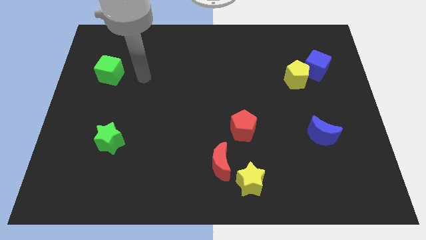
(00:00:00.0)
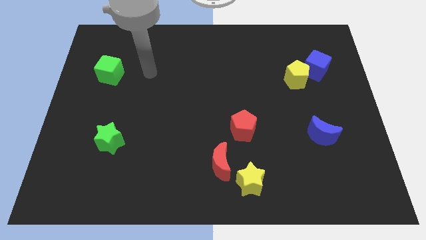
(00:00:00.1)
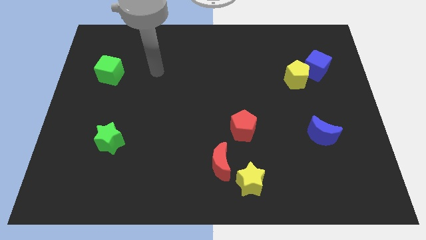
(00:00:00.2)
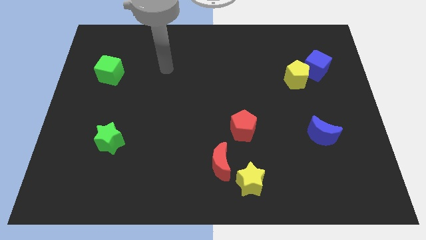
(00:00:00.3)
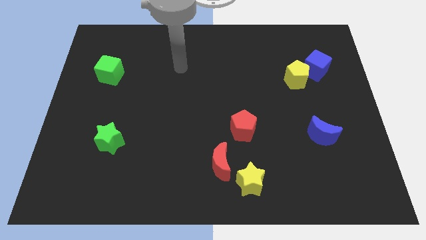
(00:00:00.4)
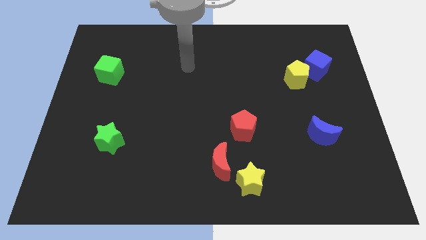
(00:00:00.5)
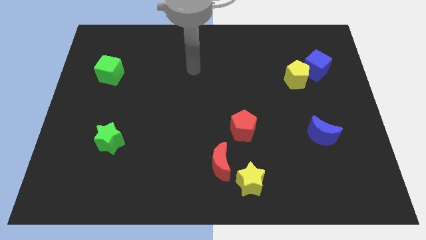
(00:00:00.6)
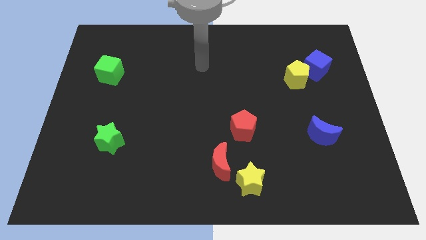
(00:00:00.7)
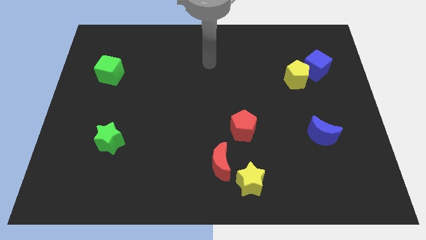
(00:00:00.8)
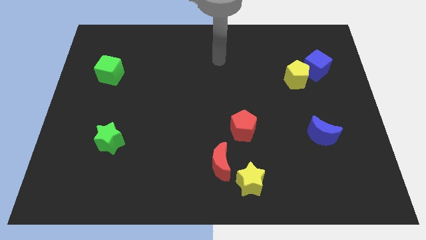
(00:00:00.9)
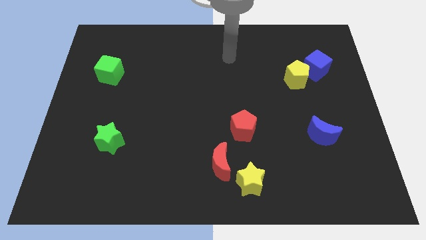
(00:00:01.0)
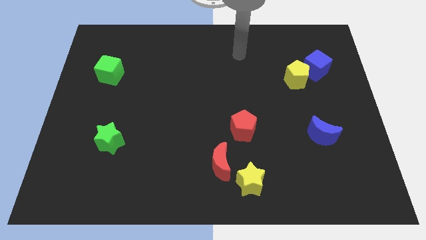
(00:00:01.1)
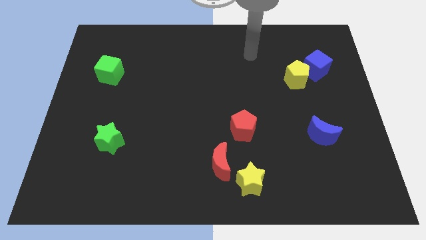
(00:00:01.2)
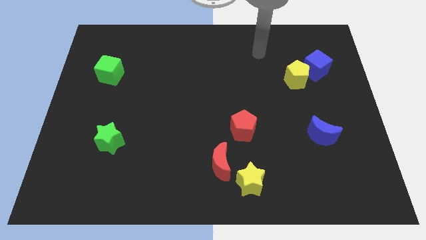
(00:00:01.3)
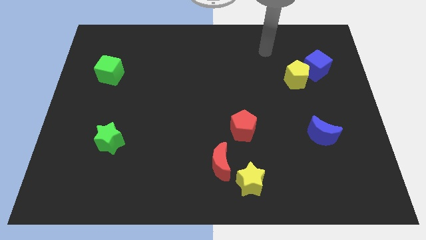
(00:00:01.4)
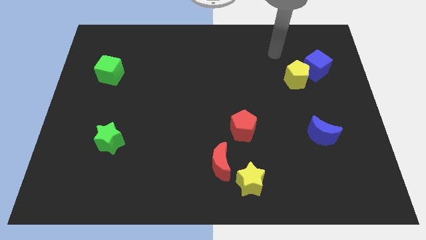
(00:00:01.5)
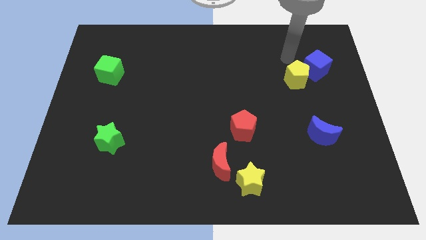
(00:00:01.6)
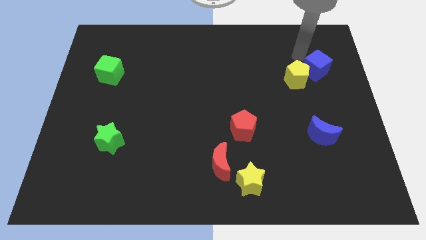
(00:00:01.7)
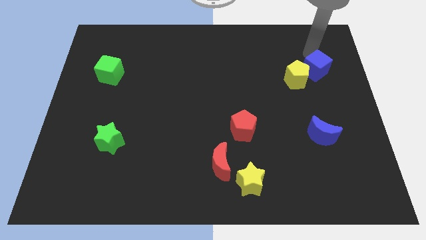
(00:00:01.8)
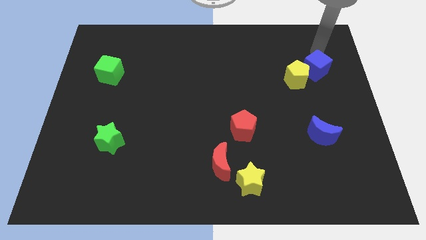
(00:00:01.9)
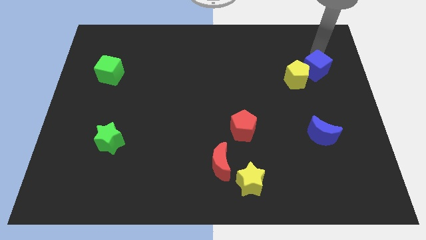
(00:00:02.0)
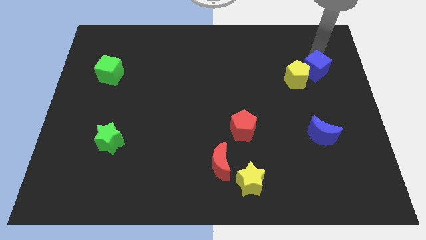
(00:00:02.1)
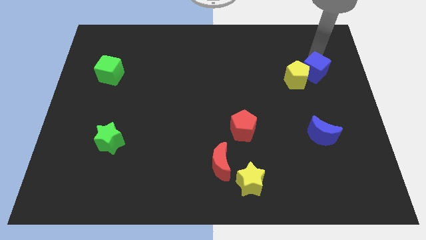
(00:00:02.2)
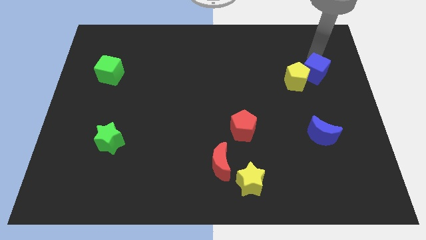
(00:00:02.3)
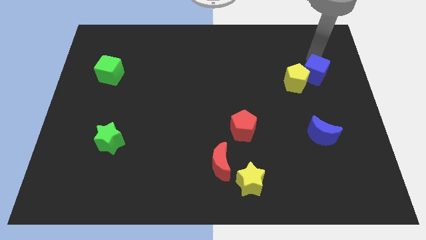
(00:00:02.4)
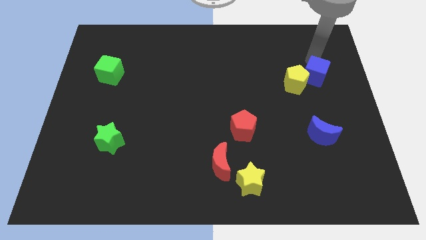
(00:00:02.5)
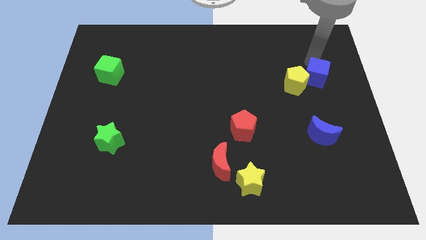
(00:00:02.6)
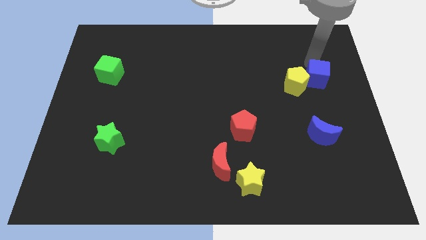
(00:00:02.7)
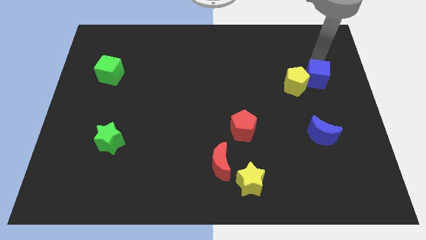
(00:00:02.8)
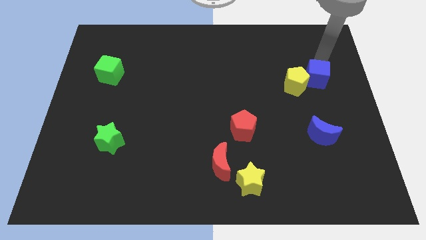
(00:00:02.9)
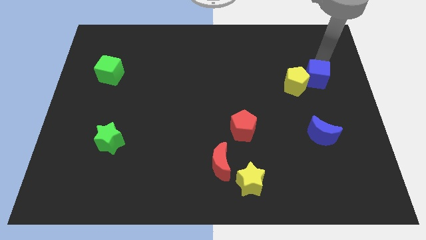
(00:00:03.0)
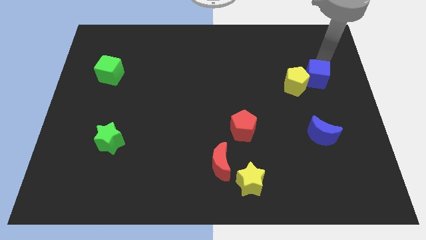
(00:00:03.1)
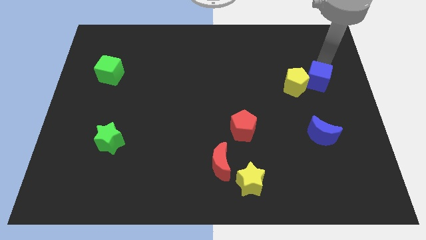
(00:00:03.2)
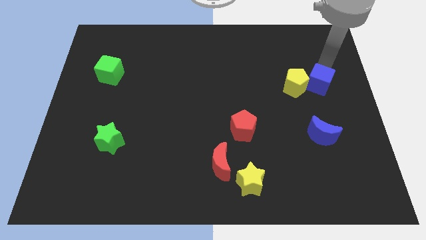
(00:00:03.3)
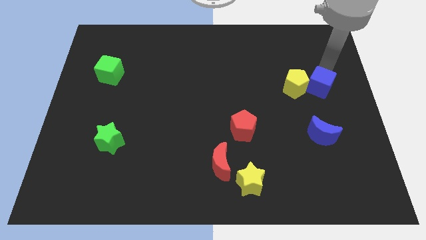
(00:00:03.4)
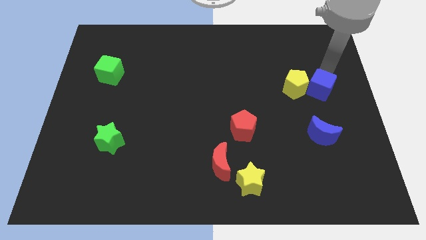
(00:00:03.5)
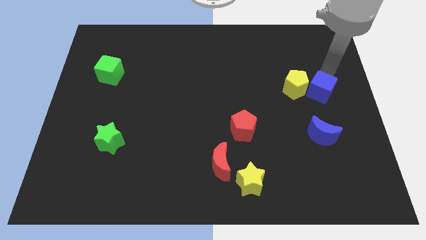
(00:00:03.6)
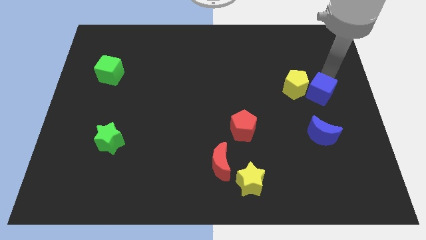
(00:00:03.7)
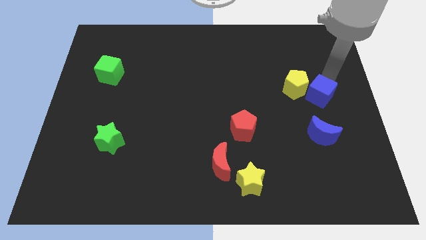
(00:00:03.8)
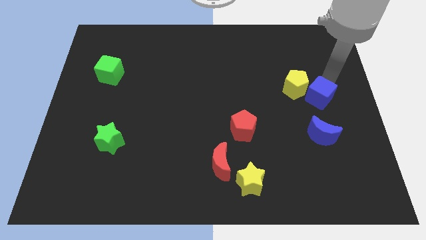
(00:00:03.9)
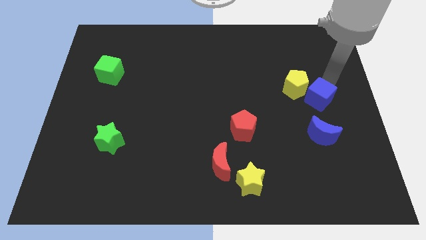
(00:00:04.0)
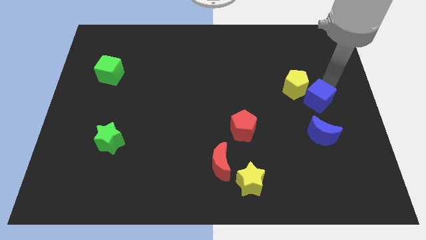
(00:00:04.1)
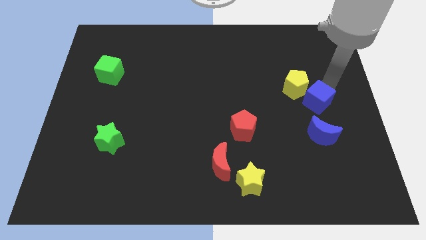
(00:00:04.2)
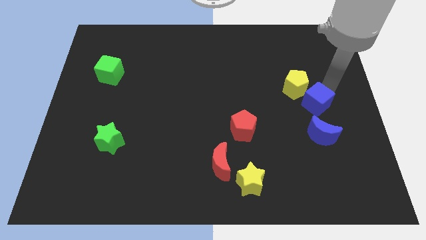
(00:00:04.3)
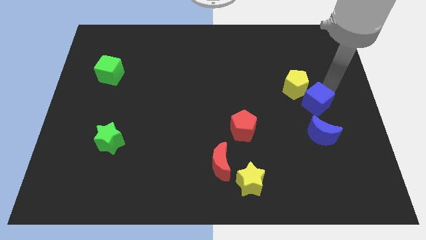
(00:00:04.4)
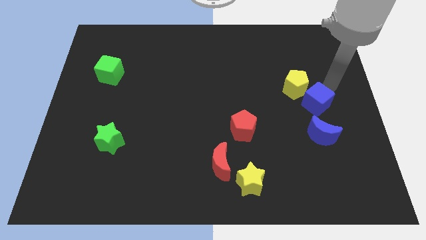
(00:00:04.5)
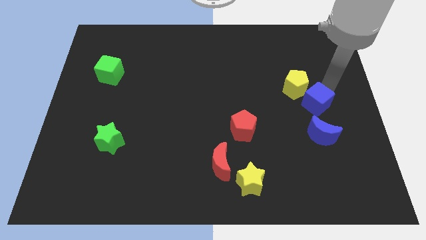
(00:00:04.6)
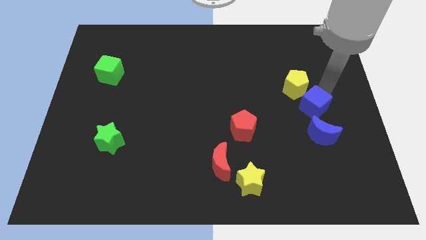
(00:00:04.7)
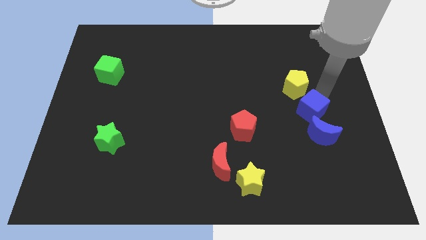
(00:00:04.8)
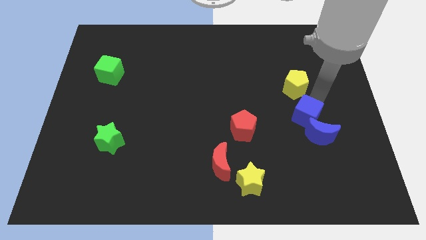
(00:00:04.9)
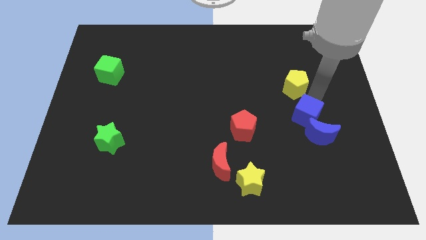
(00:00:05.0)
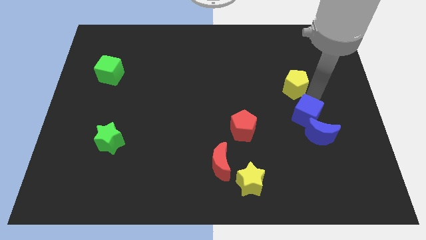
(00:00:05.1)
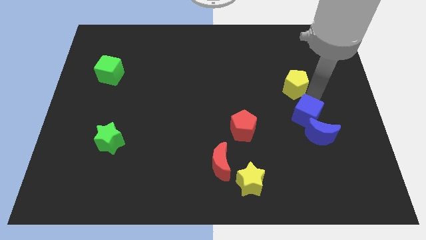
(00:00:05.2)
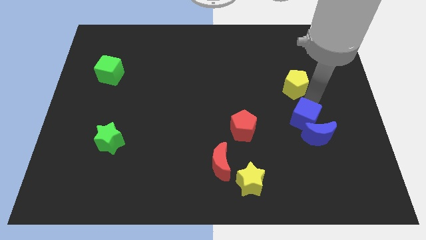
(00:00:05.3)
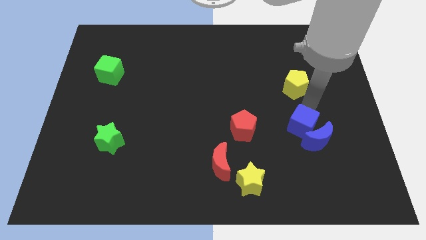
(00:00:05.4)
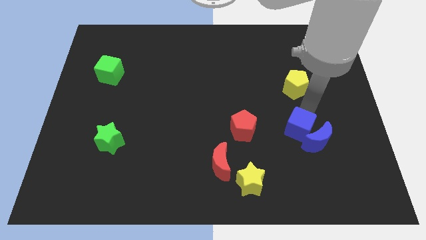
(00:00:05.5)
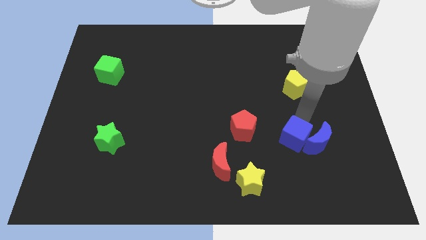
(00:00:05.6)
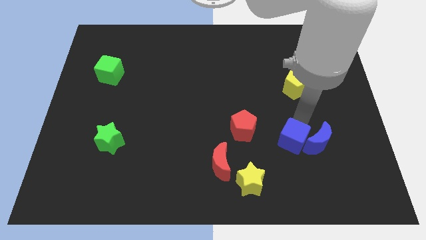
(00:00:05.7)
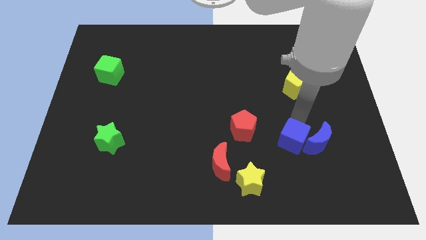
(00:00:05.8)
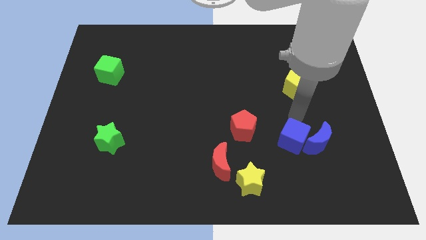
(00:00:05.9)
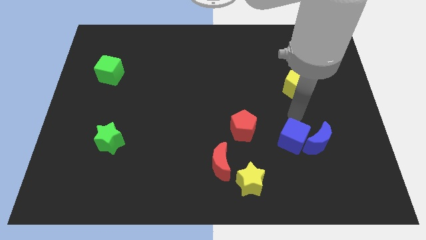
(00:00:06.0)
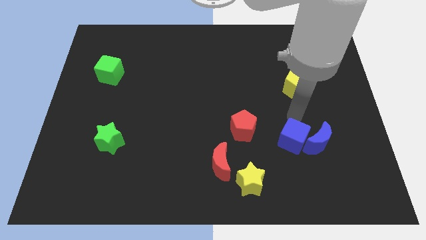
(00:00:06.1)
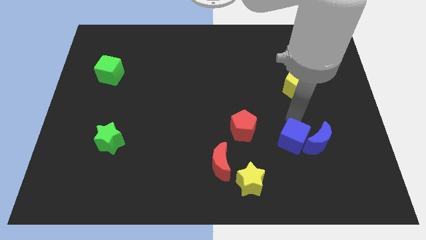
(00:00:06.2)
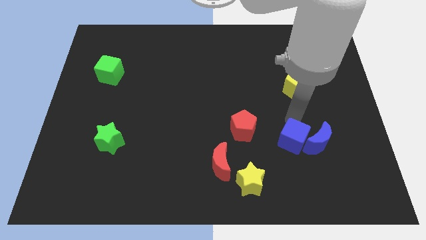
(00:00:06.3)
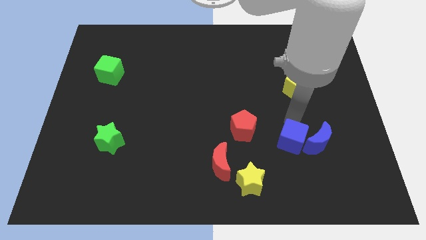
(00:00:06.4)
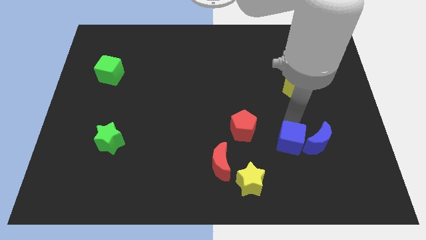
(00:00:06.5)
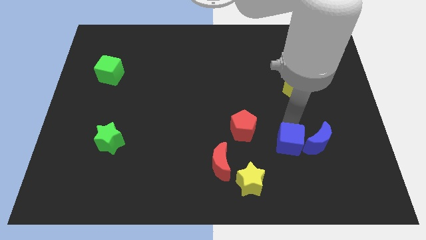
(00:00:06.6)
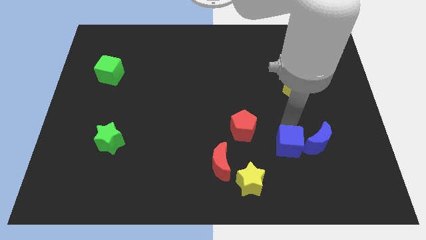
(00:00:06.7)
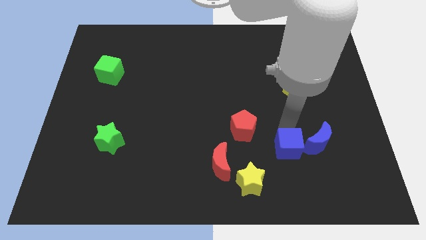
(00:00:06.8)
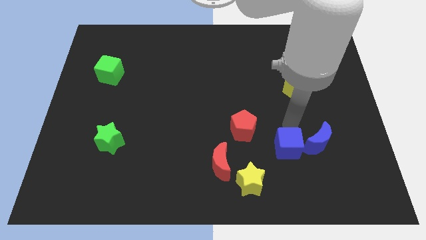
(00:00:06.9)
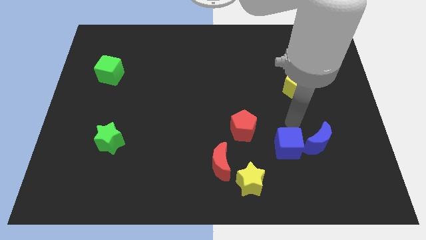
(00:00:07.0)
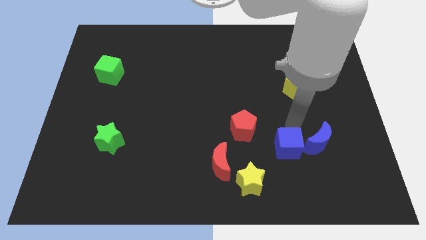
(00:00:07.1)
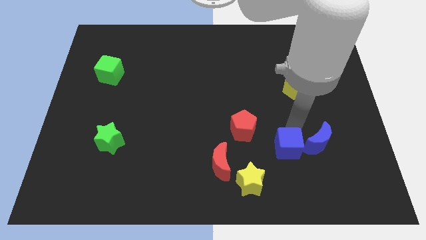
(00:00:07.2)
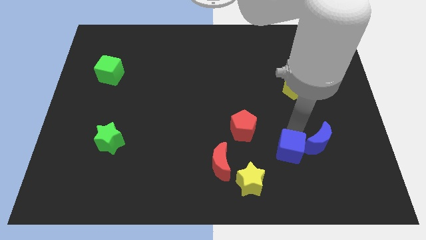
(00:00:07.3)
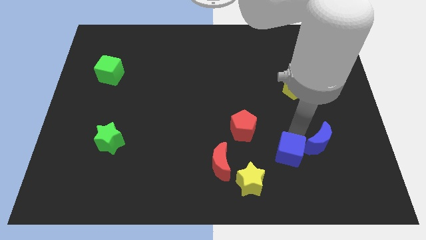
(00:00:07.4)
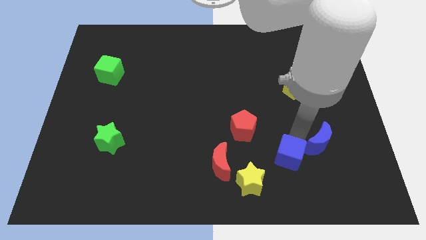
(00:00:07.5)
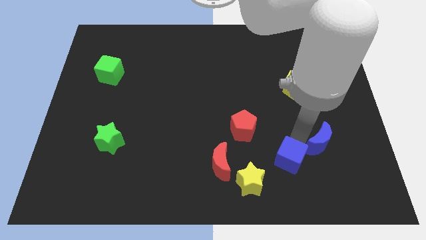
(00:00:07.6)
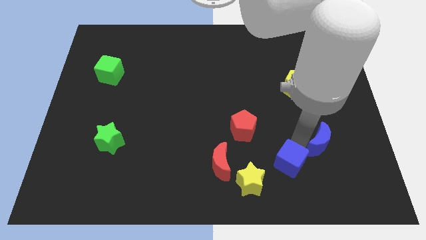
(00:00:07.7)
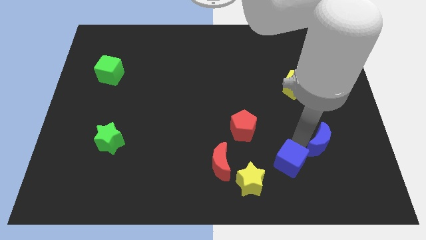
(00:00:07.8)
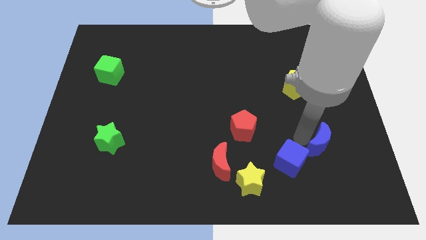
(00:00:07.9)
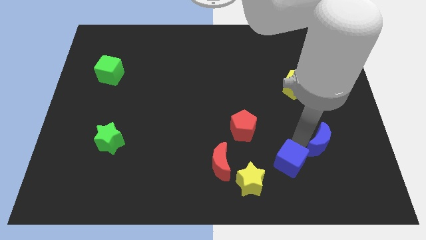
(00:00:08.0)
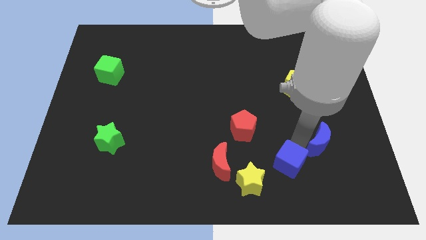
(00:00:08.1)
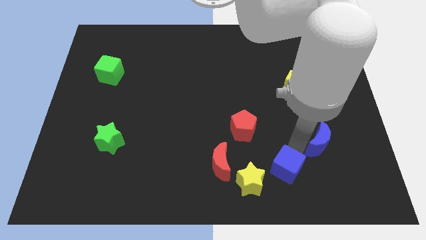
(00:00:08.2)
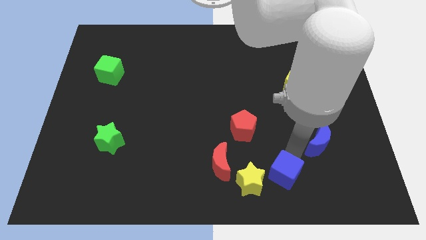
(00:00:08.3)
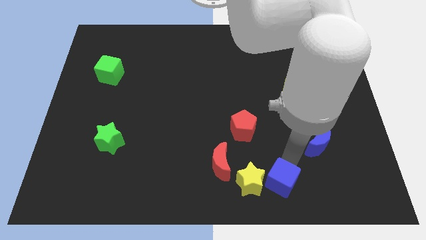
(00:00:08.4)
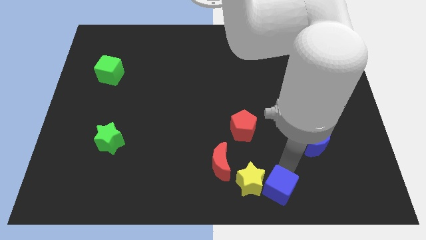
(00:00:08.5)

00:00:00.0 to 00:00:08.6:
slide the blue cube to the bottom side

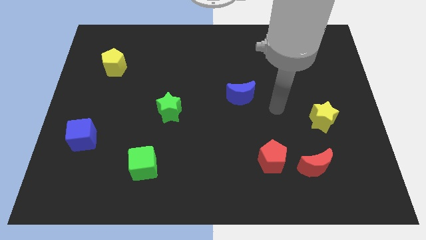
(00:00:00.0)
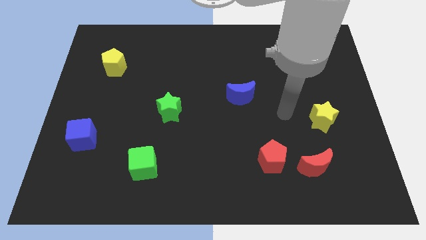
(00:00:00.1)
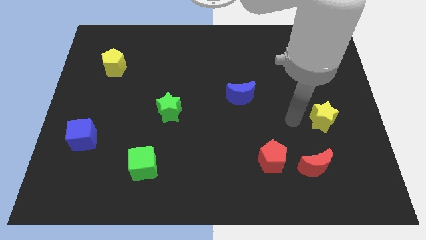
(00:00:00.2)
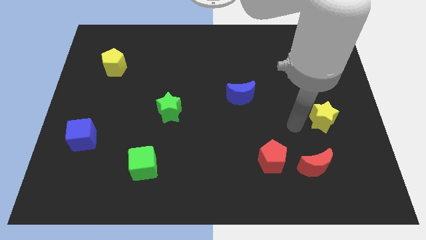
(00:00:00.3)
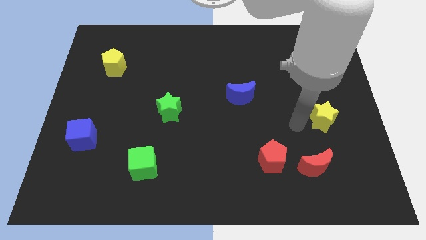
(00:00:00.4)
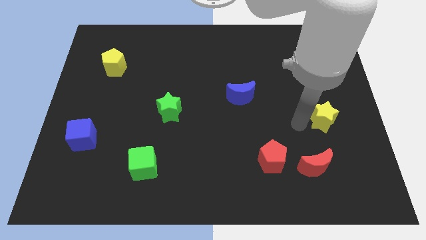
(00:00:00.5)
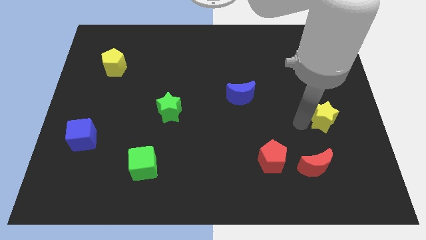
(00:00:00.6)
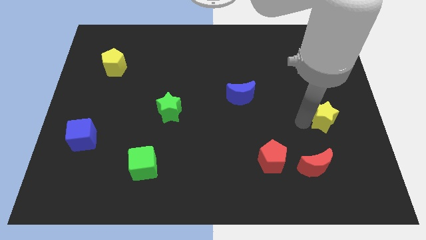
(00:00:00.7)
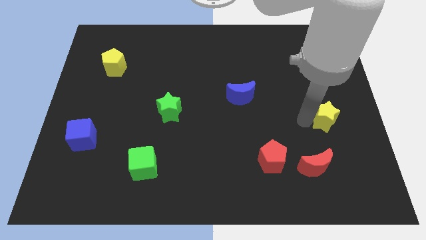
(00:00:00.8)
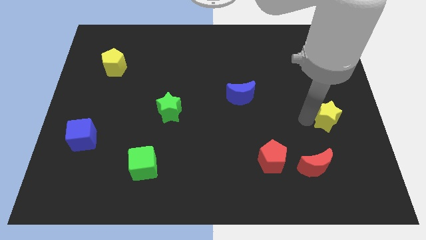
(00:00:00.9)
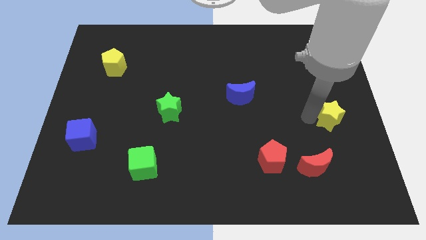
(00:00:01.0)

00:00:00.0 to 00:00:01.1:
push the yellow star to the right side
